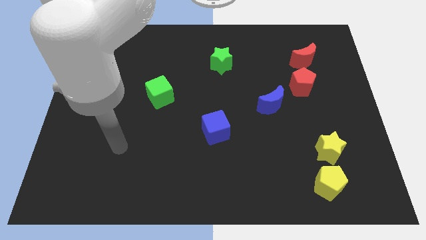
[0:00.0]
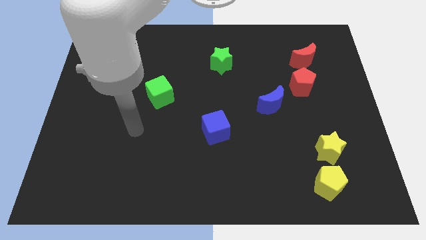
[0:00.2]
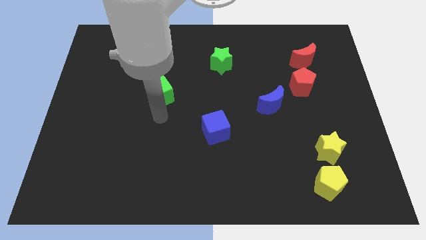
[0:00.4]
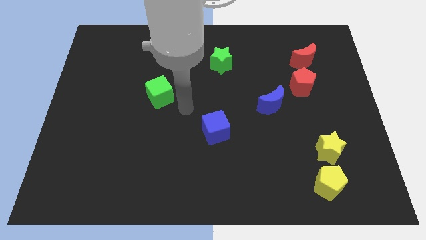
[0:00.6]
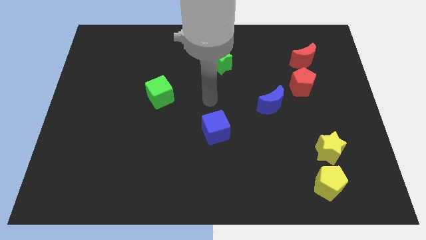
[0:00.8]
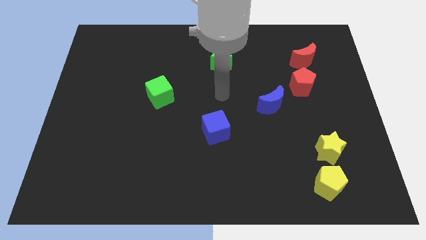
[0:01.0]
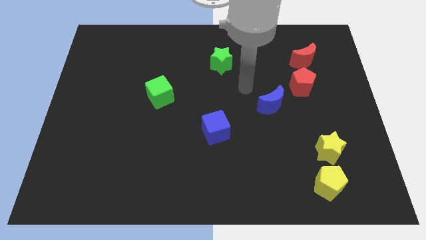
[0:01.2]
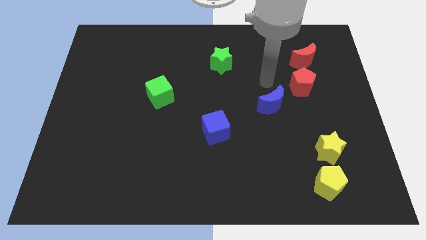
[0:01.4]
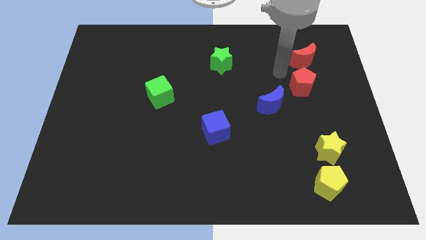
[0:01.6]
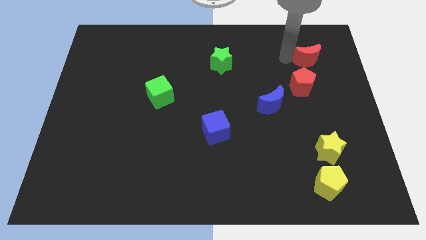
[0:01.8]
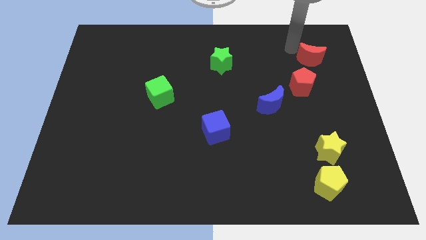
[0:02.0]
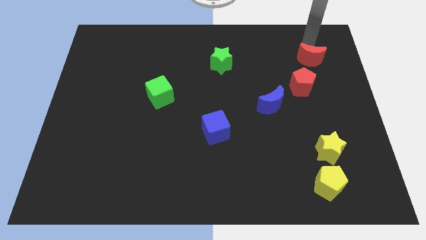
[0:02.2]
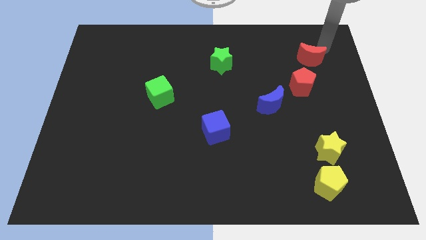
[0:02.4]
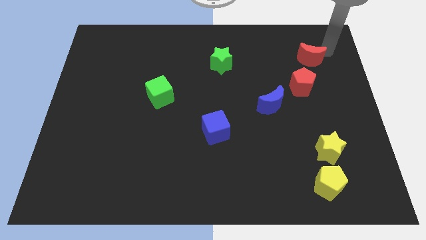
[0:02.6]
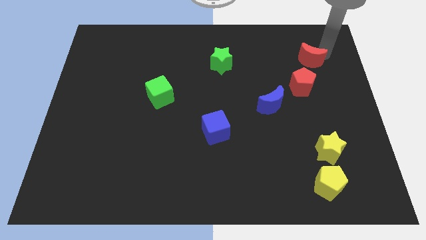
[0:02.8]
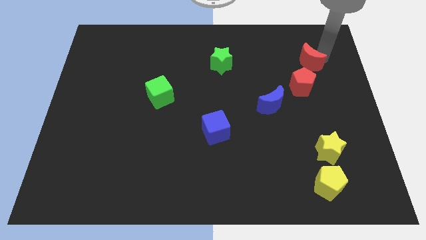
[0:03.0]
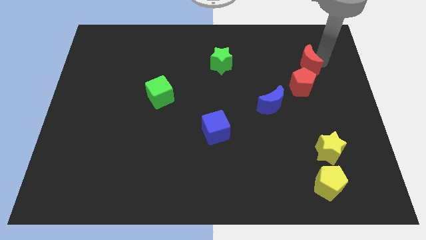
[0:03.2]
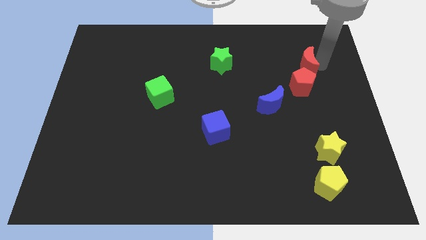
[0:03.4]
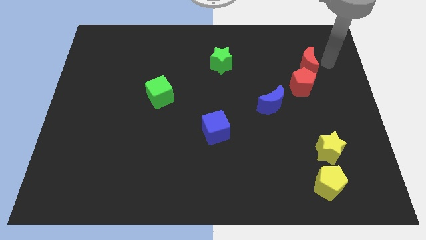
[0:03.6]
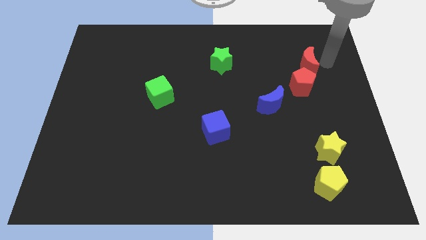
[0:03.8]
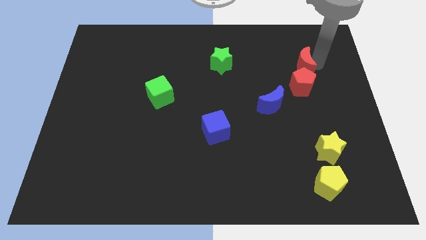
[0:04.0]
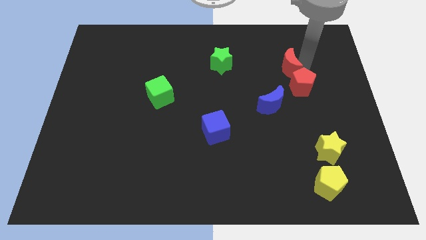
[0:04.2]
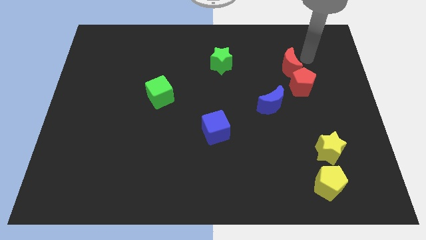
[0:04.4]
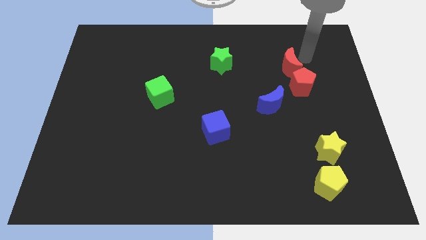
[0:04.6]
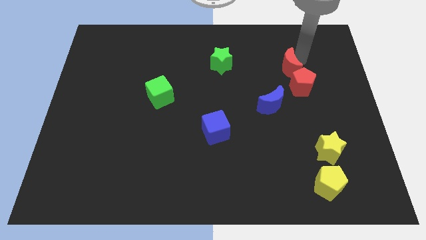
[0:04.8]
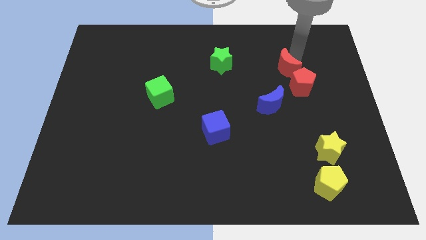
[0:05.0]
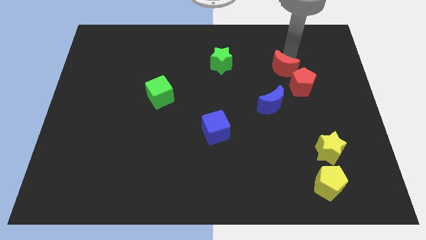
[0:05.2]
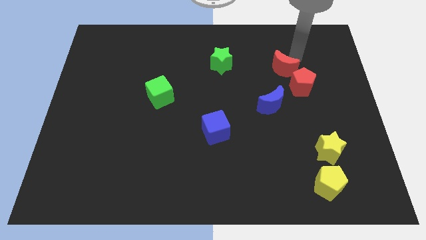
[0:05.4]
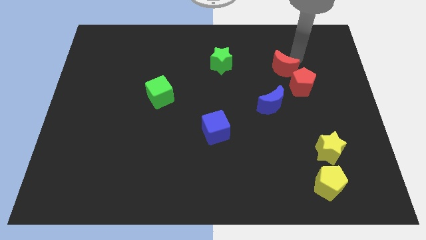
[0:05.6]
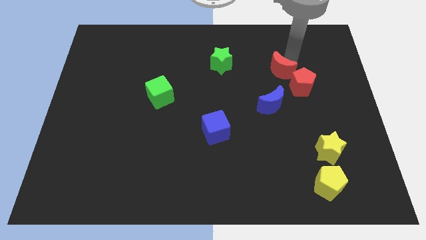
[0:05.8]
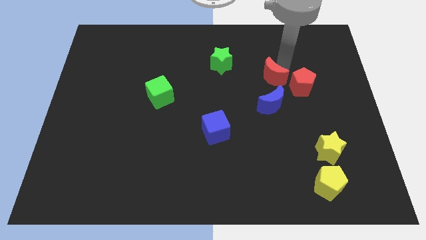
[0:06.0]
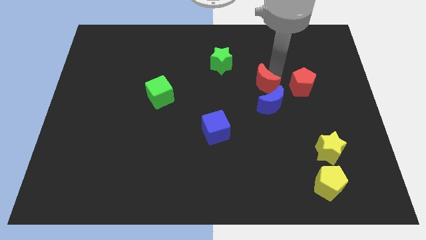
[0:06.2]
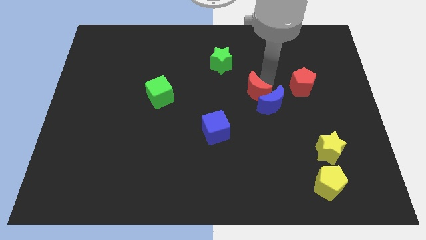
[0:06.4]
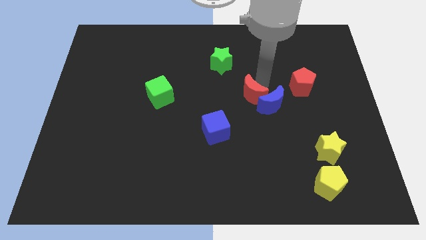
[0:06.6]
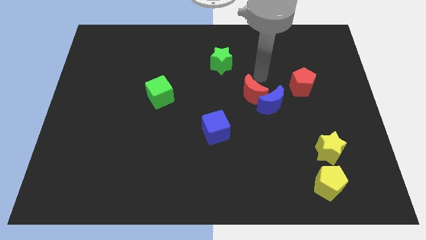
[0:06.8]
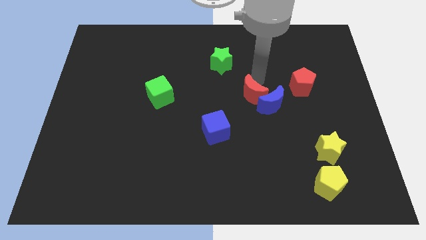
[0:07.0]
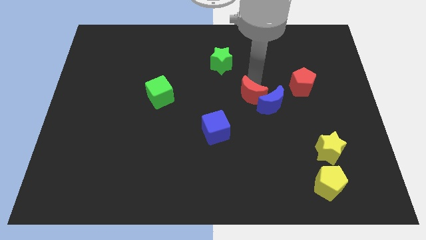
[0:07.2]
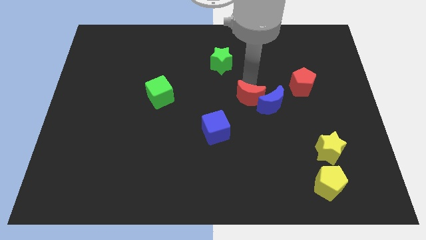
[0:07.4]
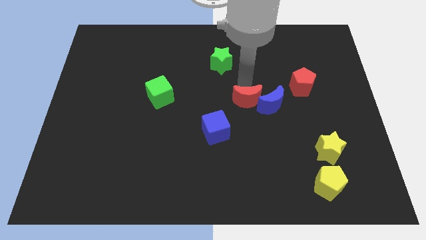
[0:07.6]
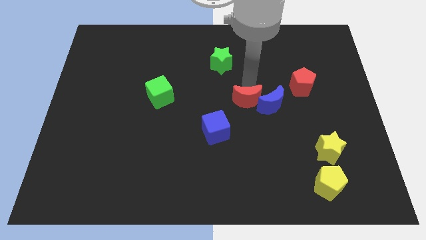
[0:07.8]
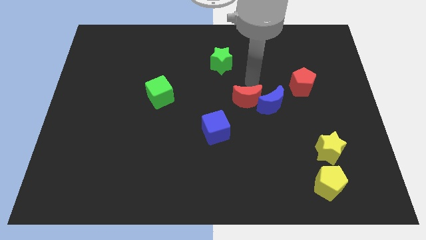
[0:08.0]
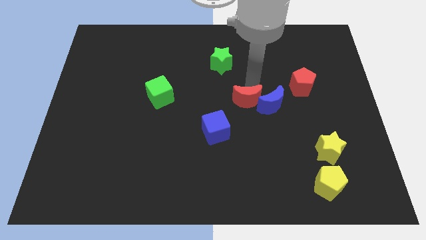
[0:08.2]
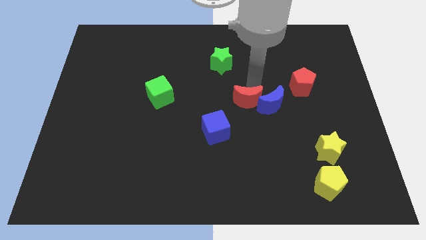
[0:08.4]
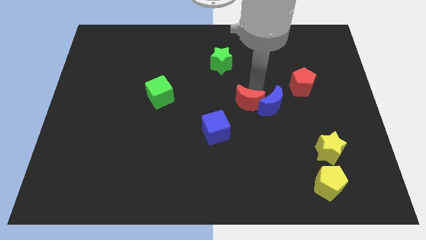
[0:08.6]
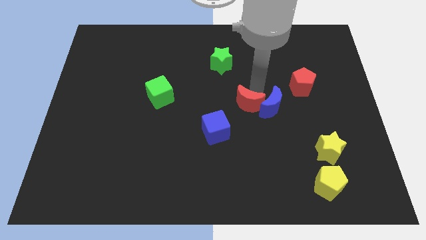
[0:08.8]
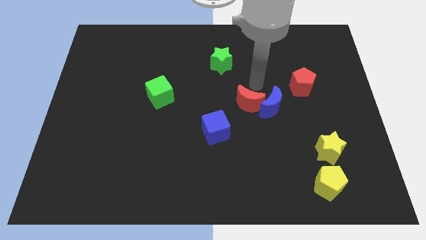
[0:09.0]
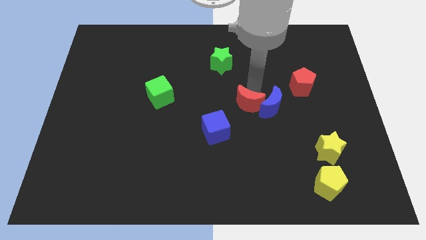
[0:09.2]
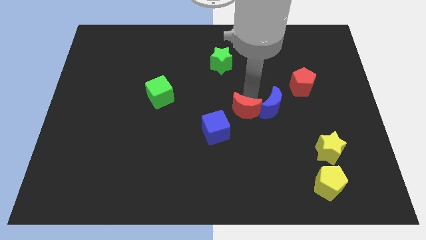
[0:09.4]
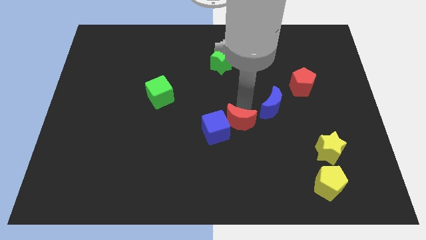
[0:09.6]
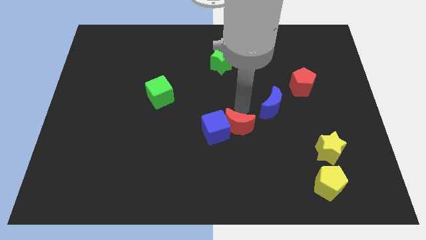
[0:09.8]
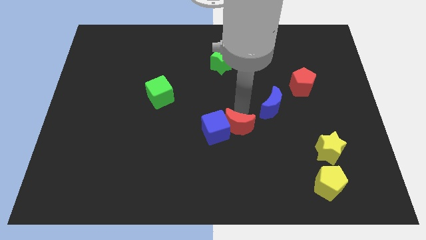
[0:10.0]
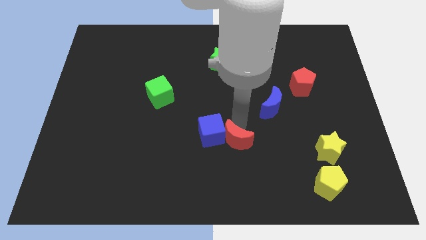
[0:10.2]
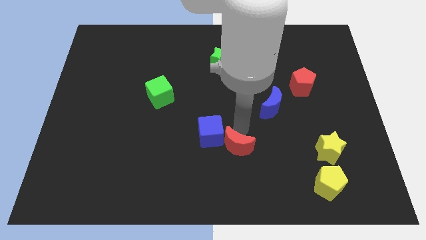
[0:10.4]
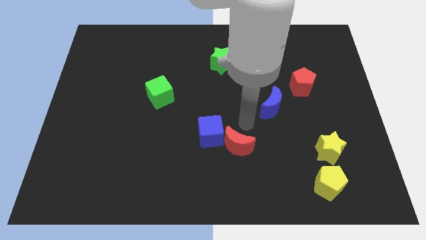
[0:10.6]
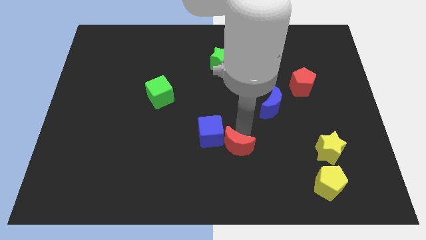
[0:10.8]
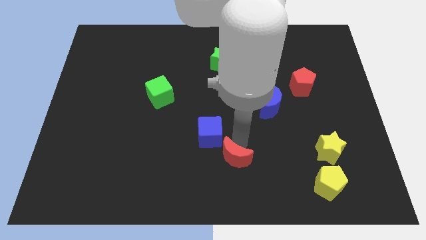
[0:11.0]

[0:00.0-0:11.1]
put the red moon to the bottom side

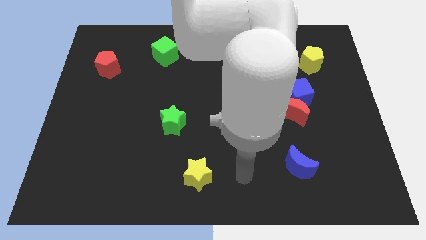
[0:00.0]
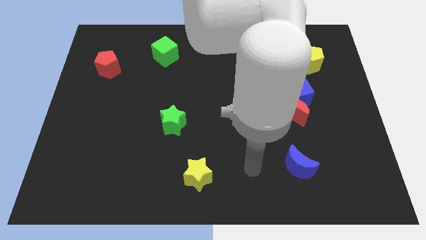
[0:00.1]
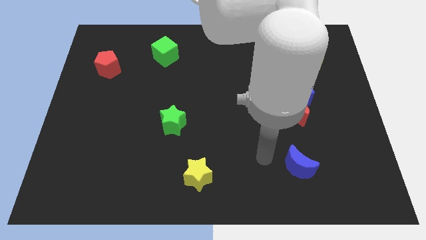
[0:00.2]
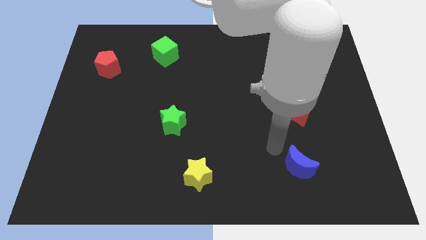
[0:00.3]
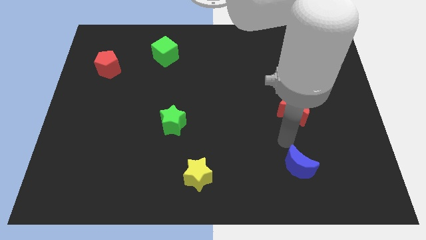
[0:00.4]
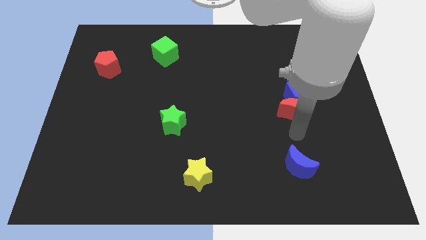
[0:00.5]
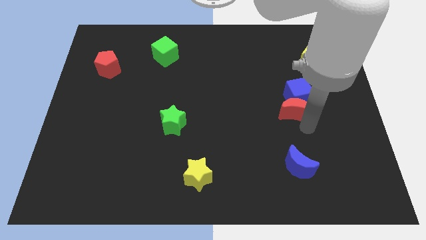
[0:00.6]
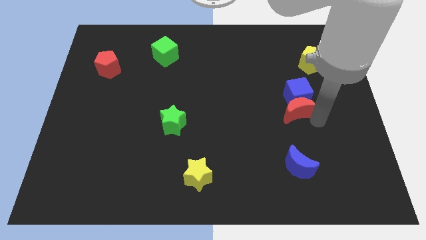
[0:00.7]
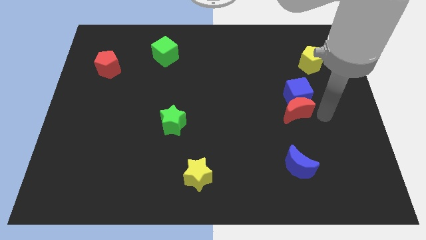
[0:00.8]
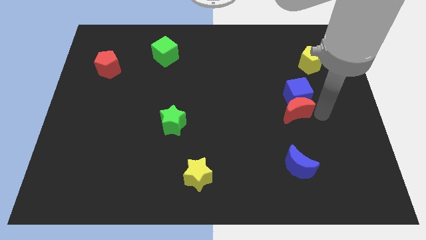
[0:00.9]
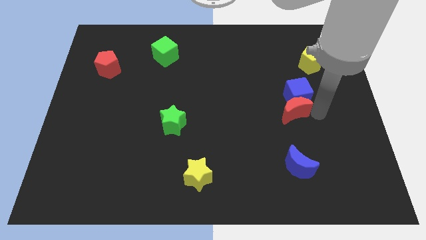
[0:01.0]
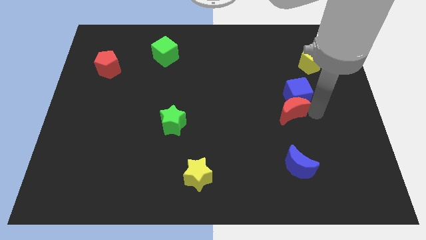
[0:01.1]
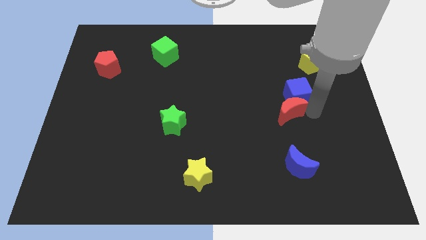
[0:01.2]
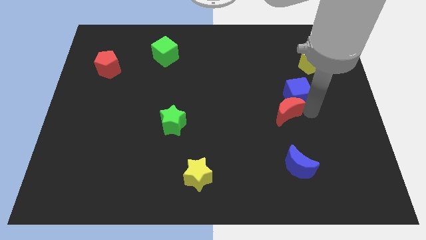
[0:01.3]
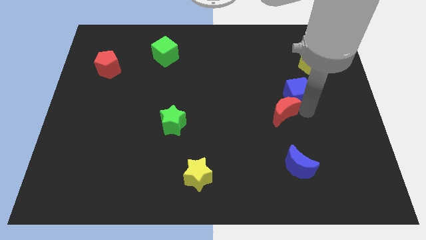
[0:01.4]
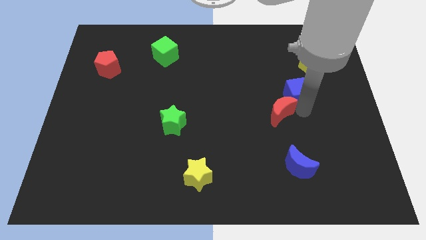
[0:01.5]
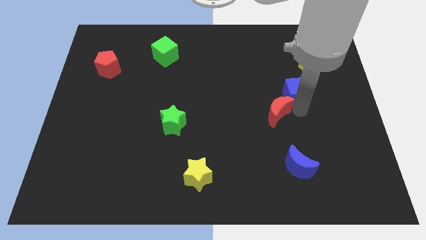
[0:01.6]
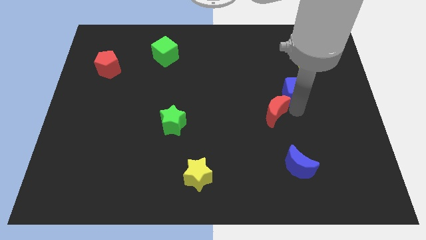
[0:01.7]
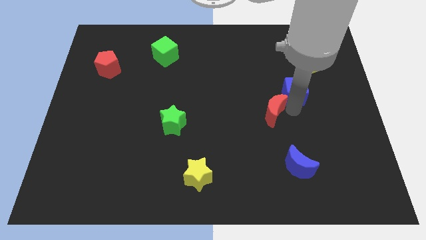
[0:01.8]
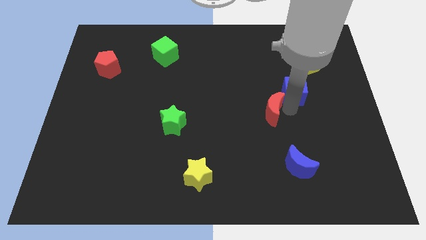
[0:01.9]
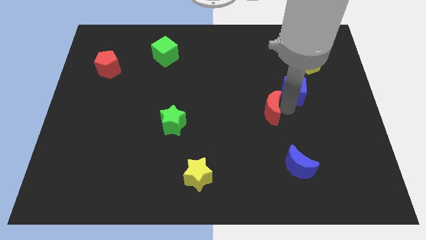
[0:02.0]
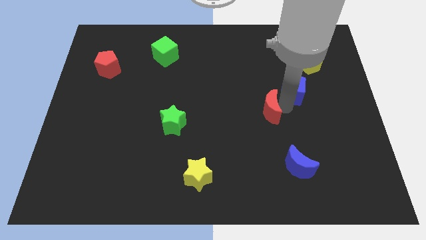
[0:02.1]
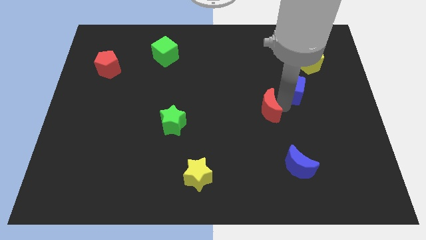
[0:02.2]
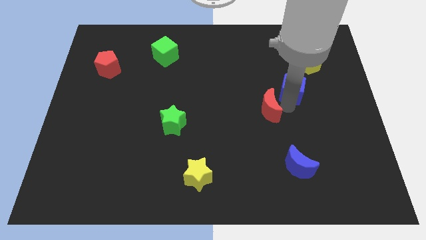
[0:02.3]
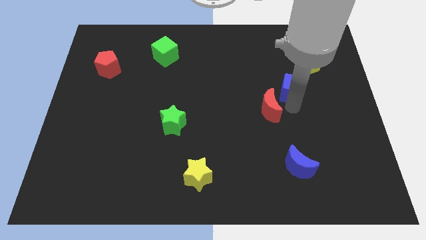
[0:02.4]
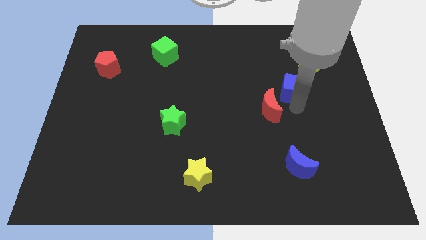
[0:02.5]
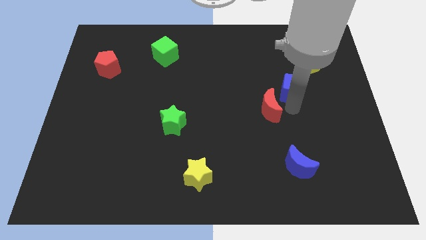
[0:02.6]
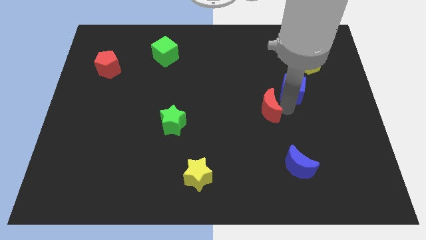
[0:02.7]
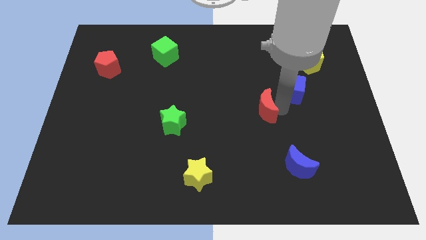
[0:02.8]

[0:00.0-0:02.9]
slide the red moon to the middle
